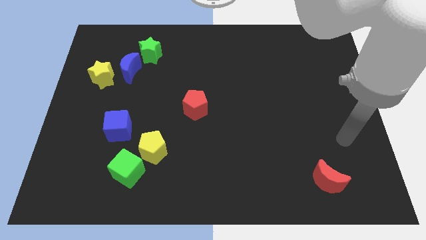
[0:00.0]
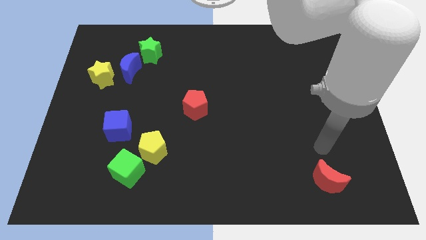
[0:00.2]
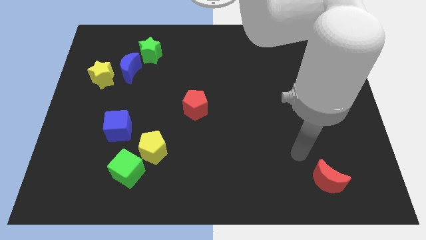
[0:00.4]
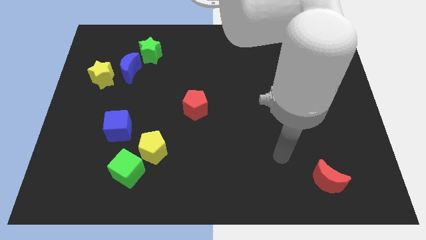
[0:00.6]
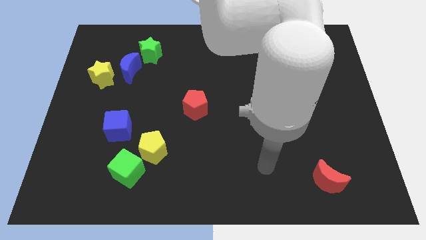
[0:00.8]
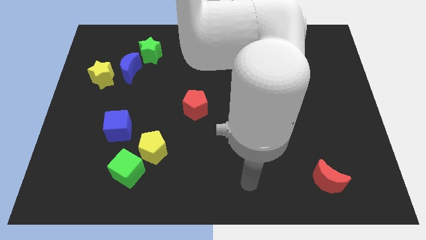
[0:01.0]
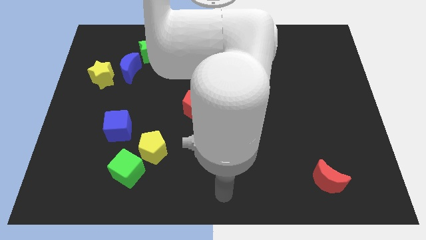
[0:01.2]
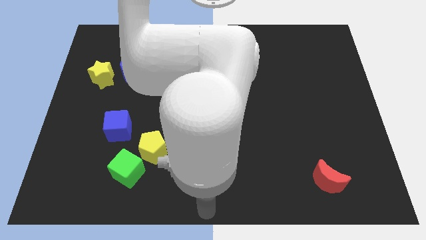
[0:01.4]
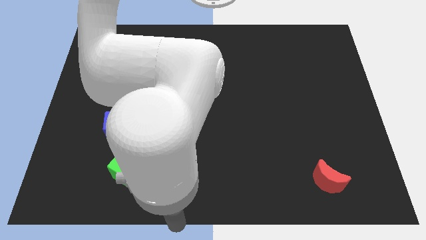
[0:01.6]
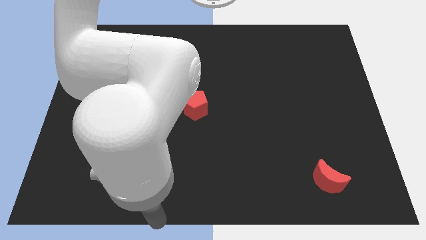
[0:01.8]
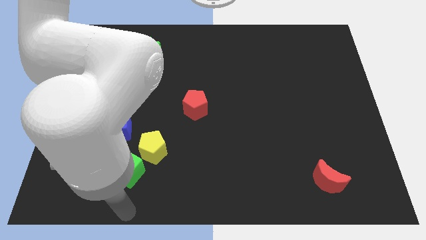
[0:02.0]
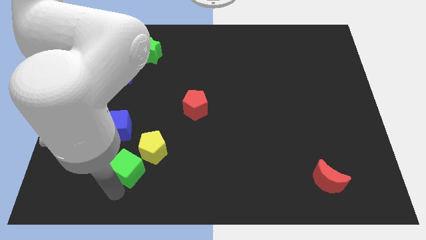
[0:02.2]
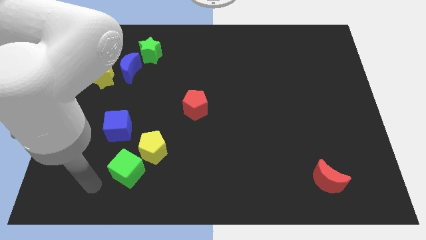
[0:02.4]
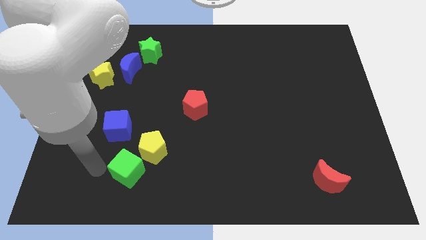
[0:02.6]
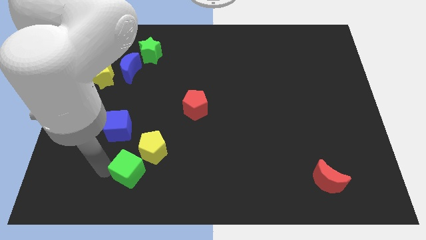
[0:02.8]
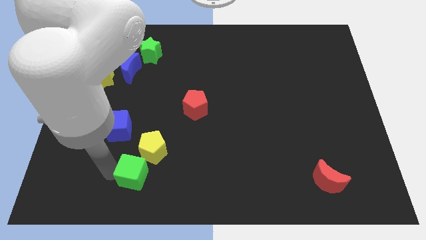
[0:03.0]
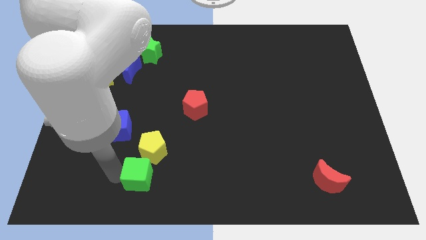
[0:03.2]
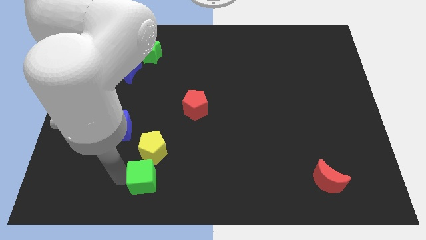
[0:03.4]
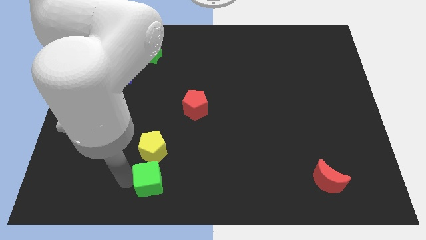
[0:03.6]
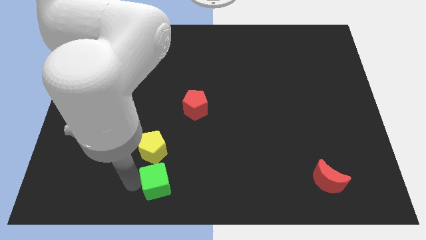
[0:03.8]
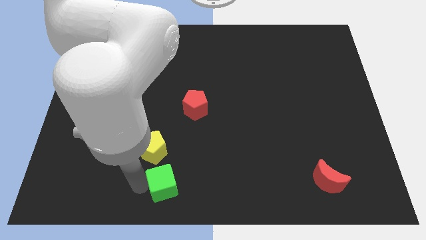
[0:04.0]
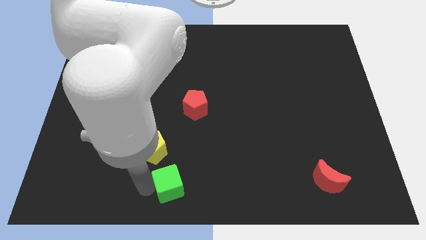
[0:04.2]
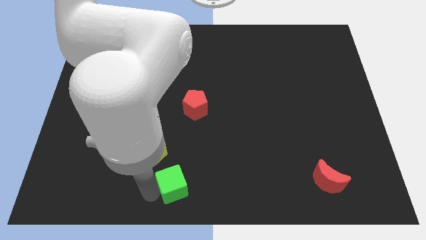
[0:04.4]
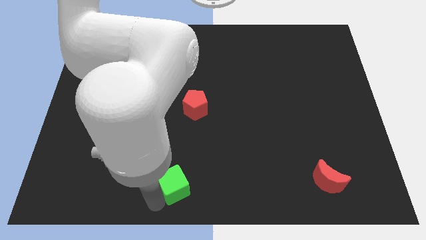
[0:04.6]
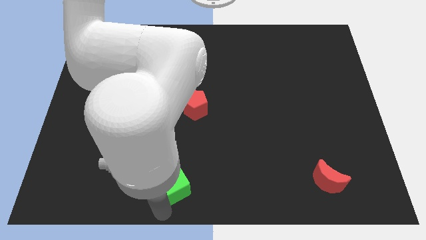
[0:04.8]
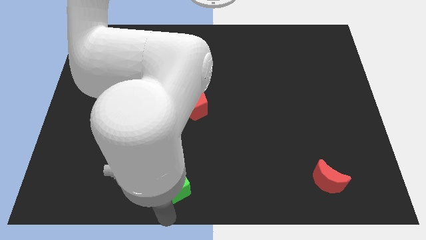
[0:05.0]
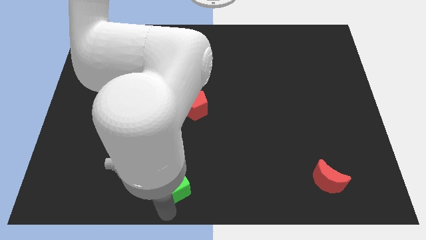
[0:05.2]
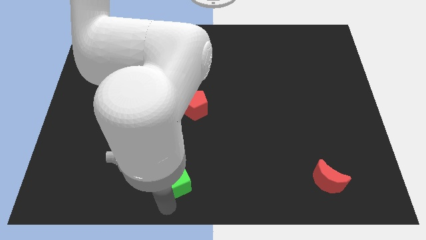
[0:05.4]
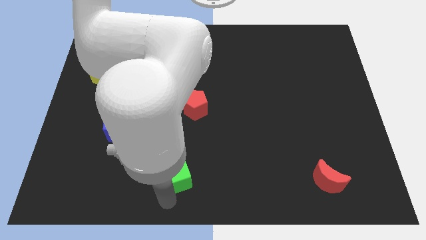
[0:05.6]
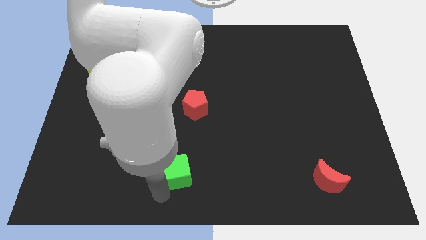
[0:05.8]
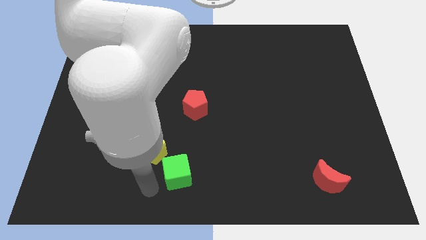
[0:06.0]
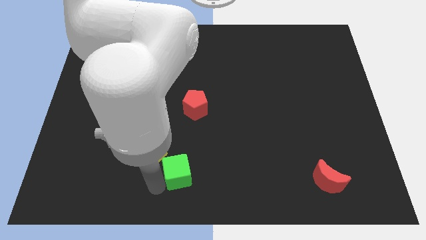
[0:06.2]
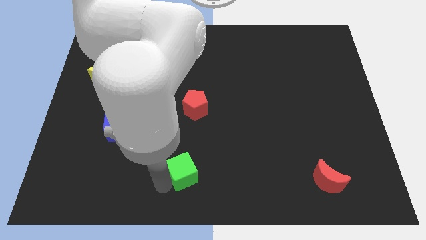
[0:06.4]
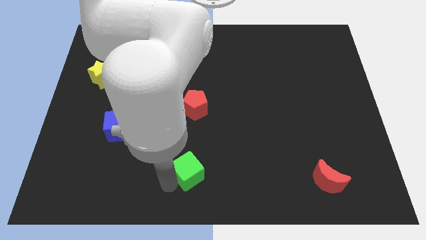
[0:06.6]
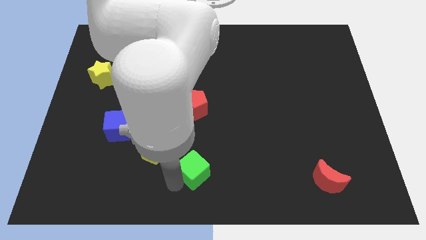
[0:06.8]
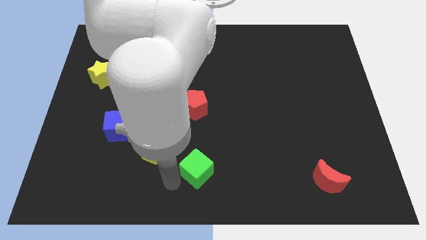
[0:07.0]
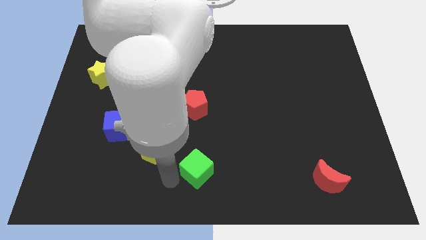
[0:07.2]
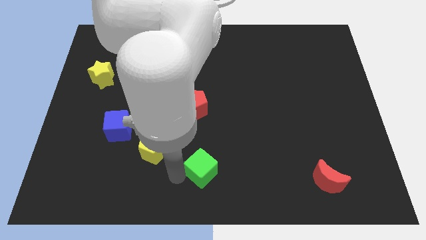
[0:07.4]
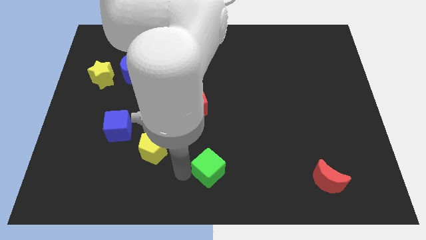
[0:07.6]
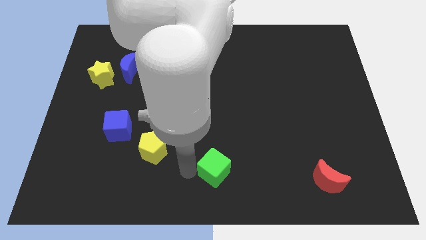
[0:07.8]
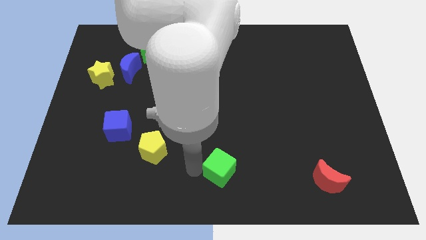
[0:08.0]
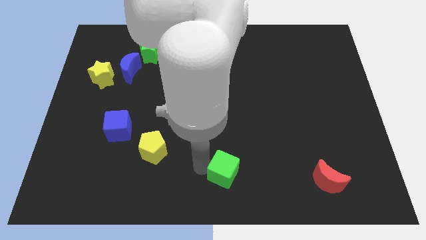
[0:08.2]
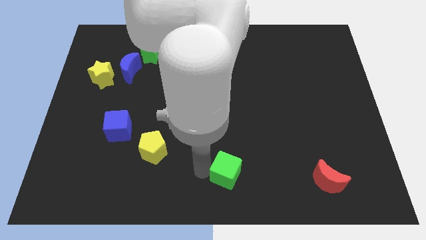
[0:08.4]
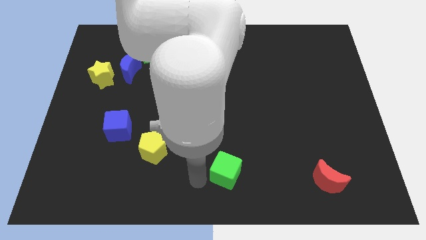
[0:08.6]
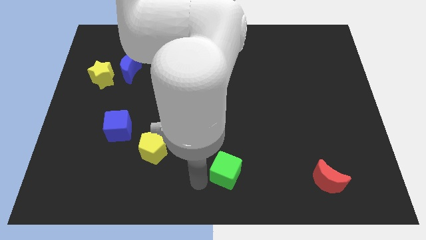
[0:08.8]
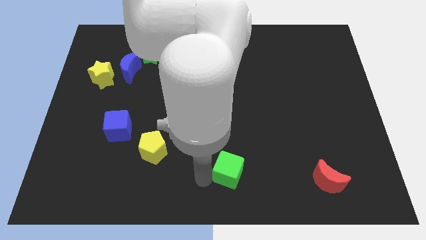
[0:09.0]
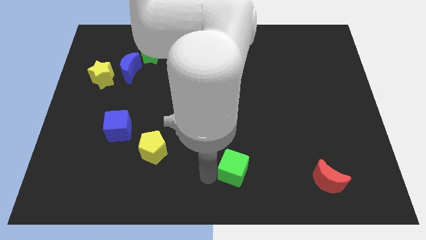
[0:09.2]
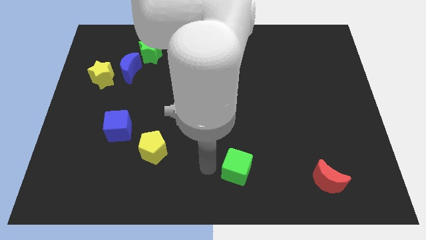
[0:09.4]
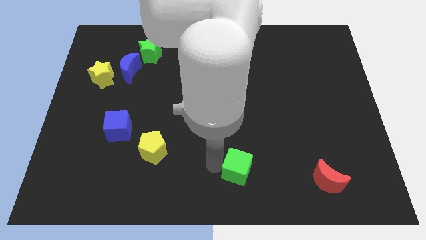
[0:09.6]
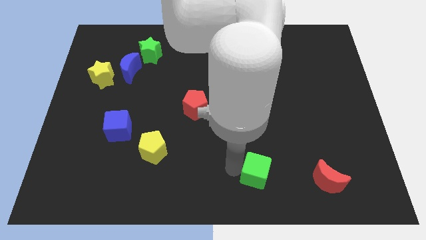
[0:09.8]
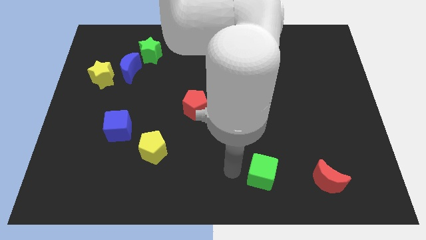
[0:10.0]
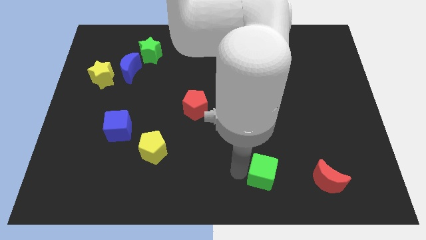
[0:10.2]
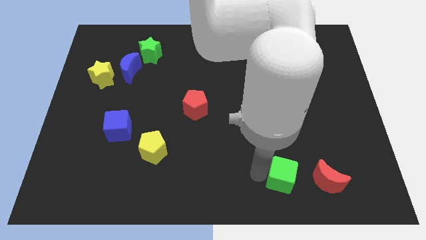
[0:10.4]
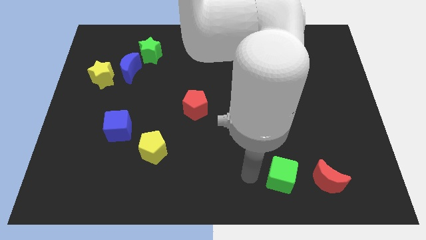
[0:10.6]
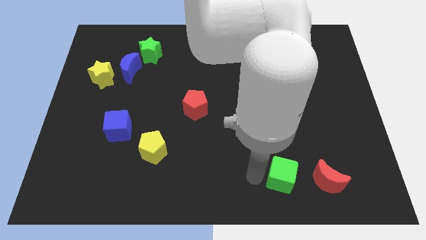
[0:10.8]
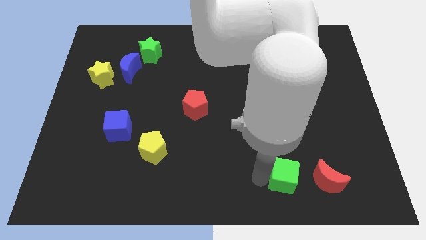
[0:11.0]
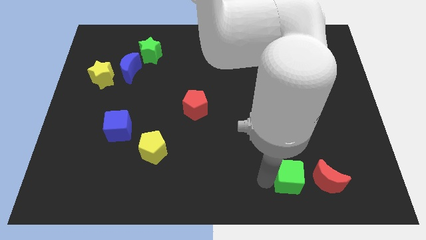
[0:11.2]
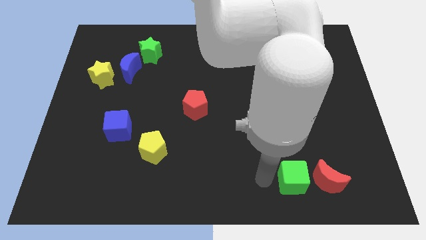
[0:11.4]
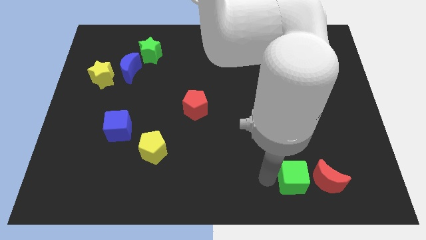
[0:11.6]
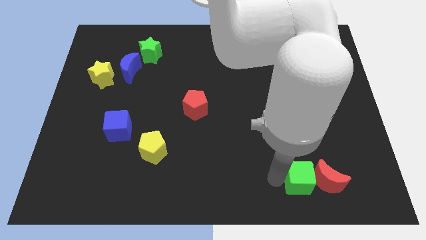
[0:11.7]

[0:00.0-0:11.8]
put the green cube towards the red moon

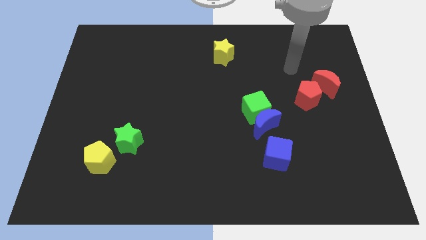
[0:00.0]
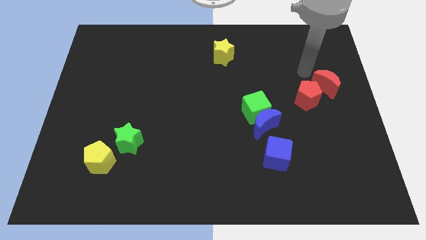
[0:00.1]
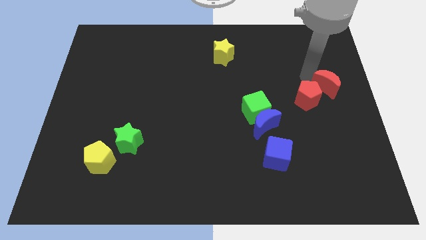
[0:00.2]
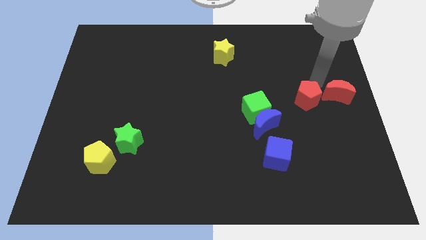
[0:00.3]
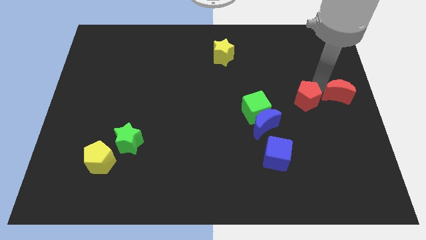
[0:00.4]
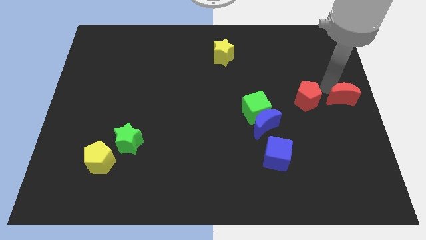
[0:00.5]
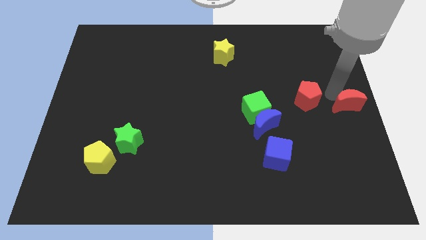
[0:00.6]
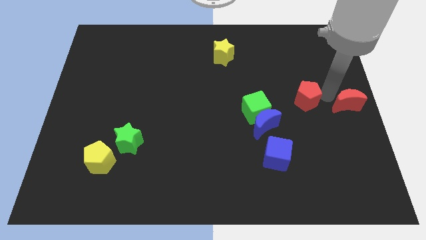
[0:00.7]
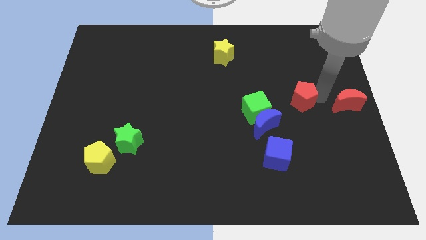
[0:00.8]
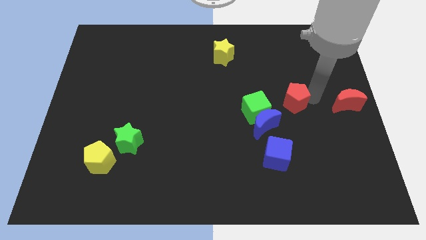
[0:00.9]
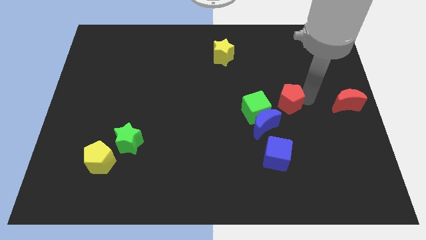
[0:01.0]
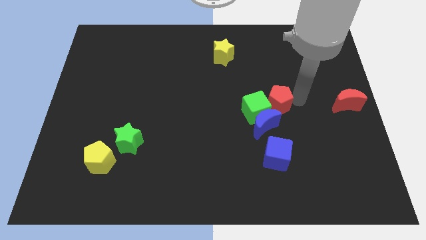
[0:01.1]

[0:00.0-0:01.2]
push the red pentagon towards the green cube
